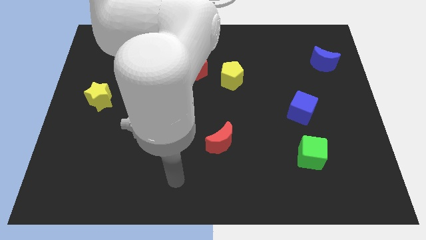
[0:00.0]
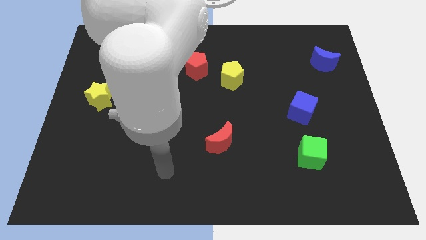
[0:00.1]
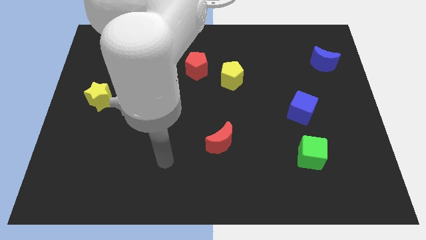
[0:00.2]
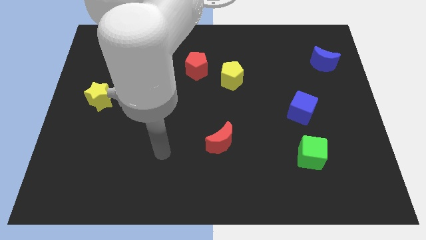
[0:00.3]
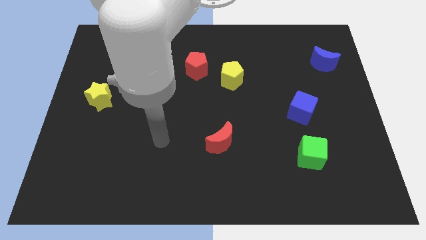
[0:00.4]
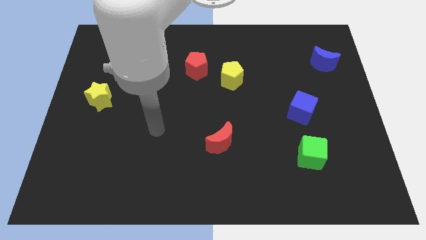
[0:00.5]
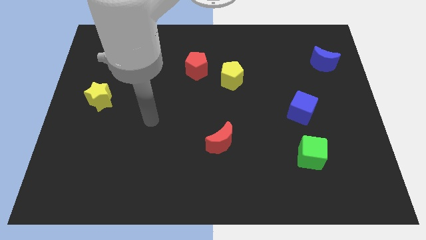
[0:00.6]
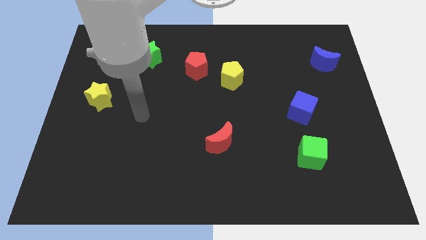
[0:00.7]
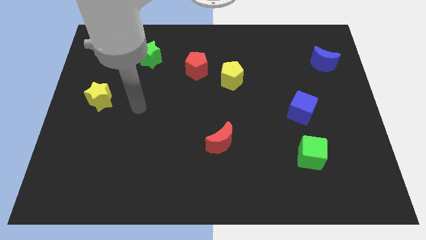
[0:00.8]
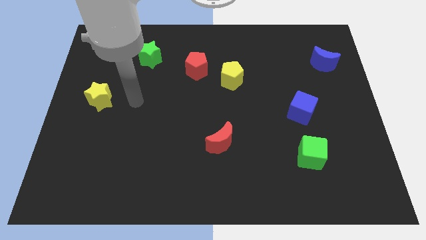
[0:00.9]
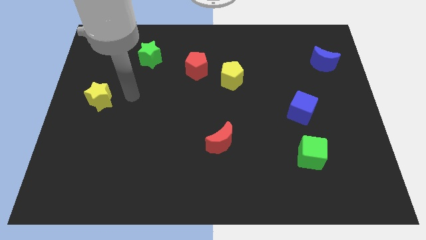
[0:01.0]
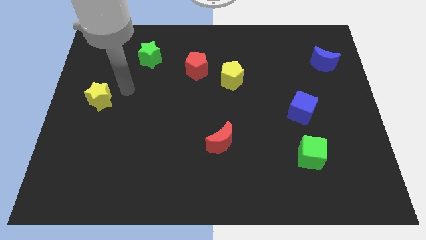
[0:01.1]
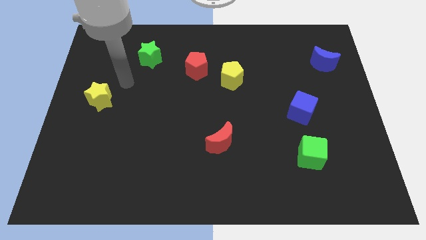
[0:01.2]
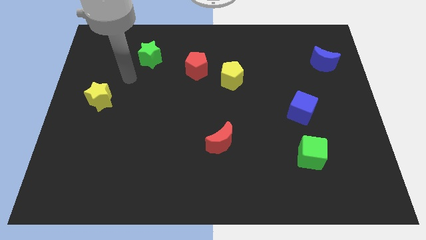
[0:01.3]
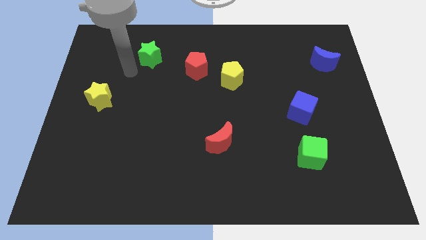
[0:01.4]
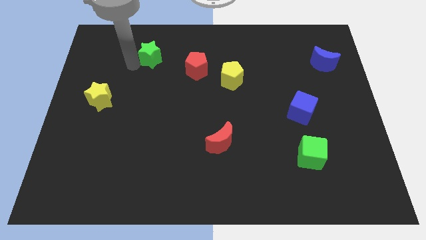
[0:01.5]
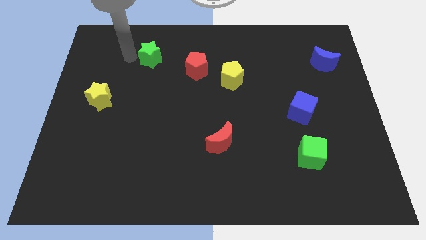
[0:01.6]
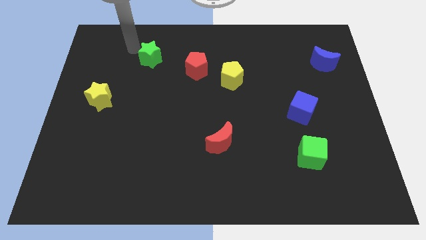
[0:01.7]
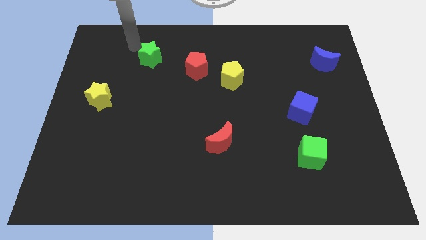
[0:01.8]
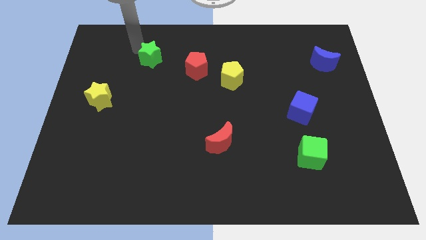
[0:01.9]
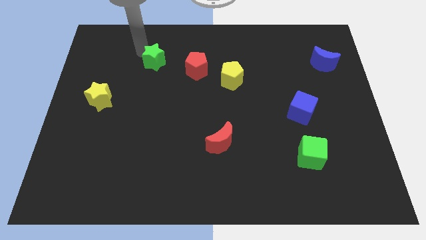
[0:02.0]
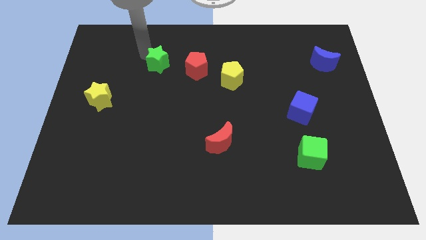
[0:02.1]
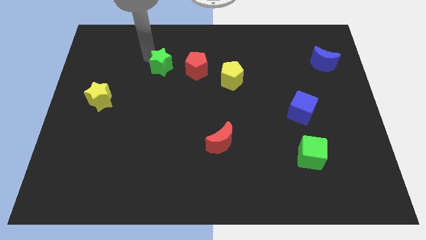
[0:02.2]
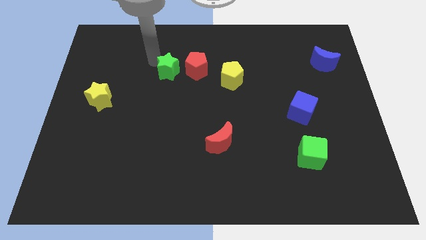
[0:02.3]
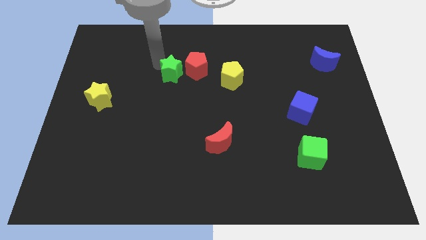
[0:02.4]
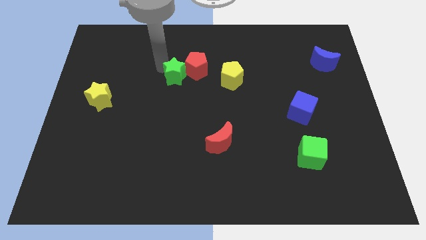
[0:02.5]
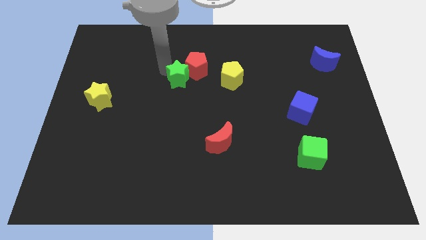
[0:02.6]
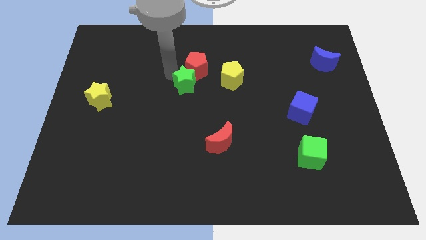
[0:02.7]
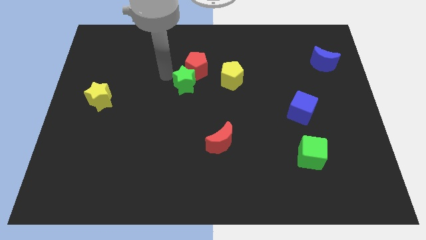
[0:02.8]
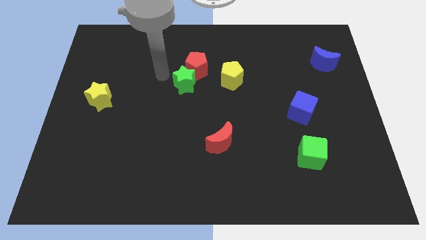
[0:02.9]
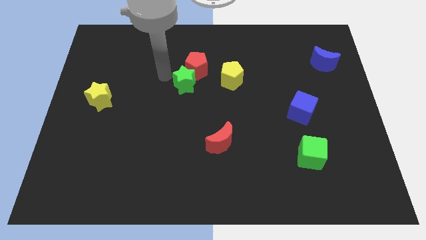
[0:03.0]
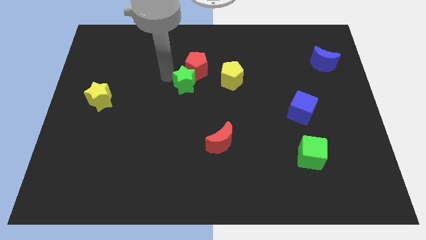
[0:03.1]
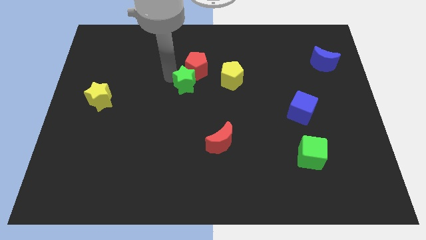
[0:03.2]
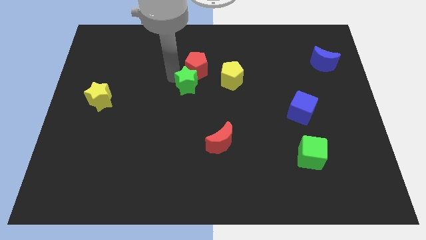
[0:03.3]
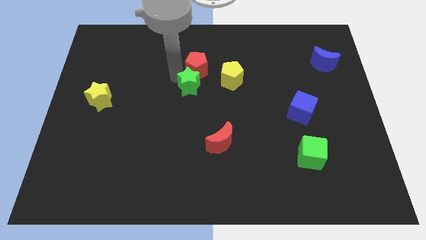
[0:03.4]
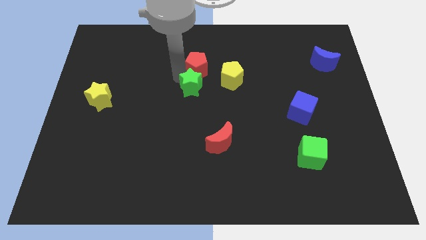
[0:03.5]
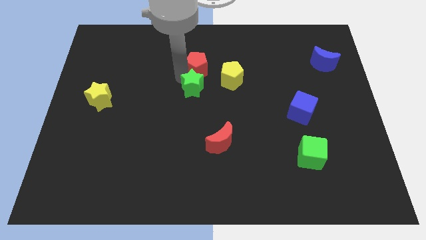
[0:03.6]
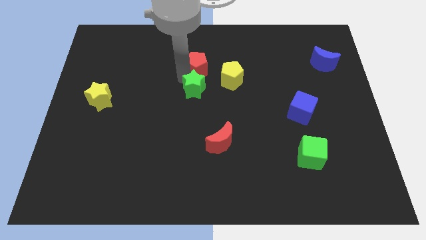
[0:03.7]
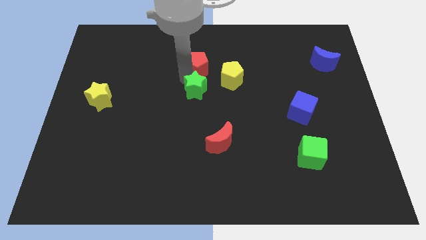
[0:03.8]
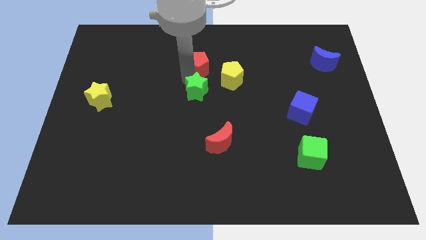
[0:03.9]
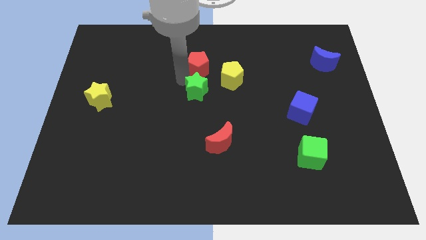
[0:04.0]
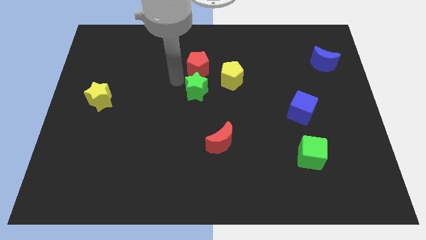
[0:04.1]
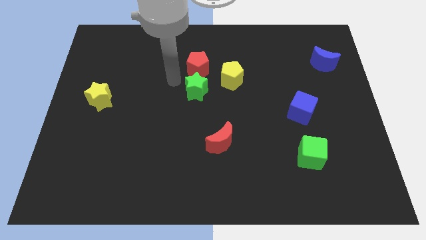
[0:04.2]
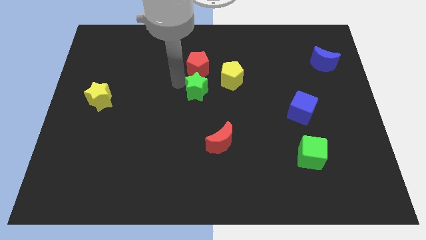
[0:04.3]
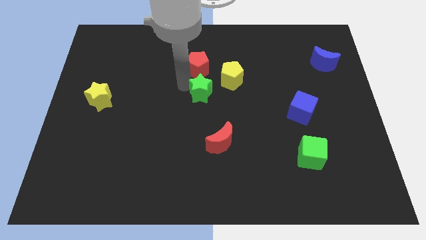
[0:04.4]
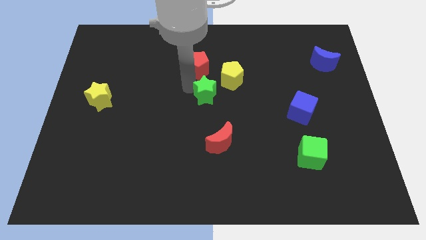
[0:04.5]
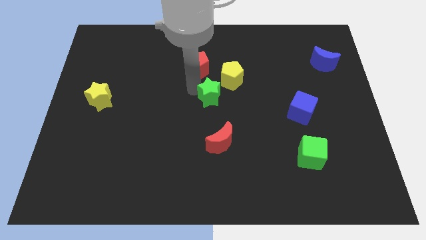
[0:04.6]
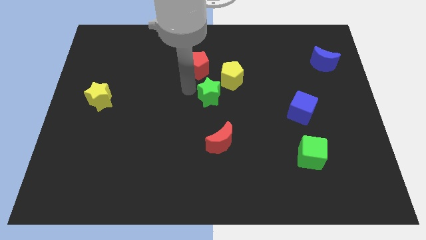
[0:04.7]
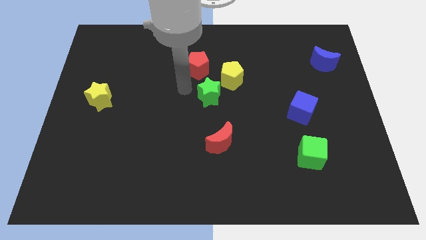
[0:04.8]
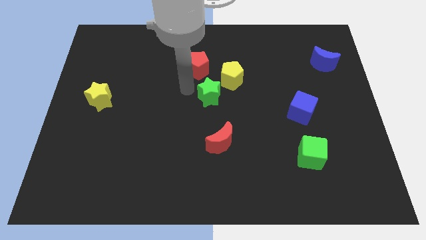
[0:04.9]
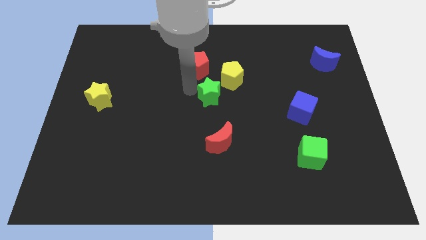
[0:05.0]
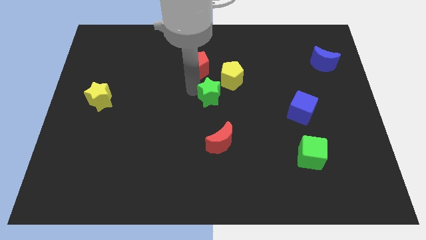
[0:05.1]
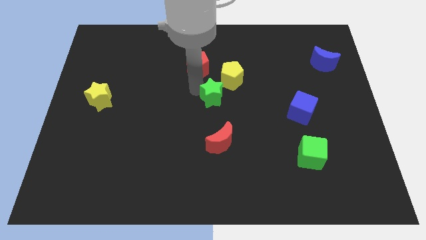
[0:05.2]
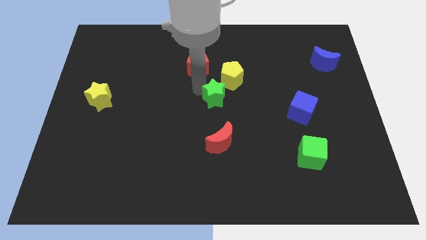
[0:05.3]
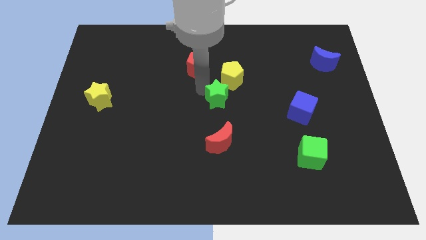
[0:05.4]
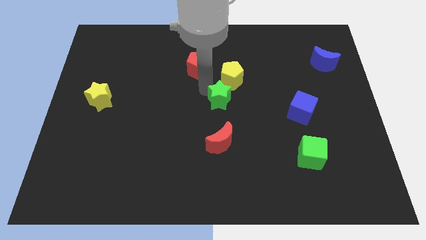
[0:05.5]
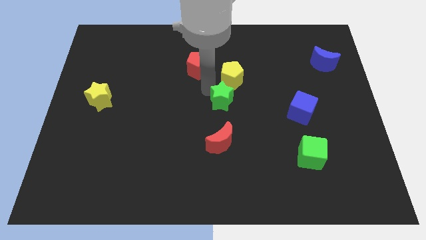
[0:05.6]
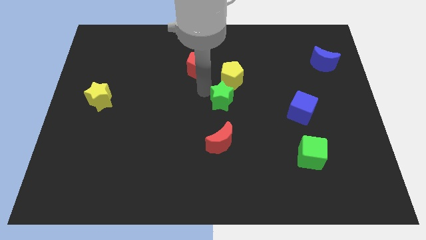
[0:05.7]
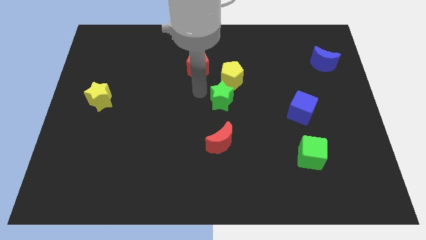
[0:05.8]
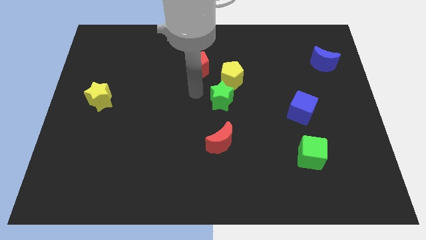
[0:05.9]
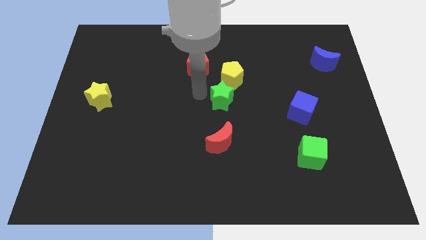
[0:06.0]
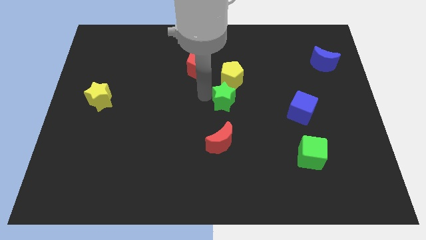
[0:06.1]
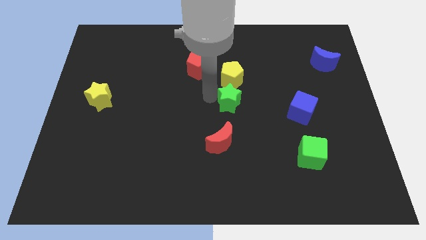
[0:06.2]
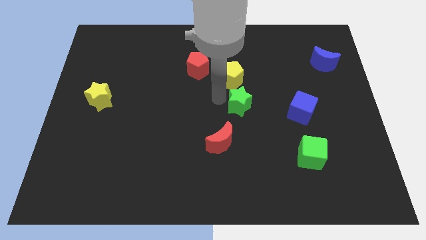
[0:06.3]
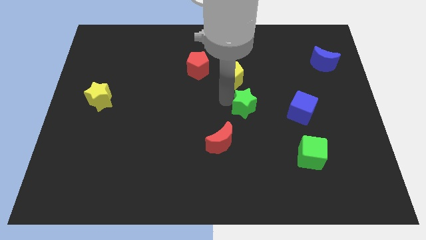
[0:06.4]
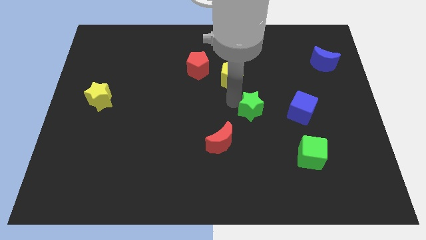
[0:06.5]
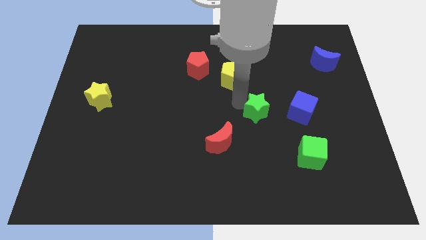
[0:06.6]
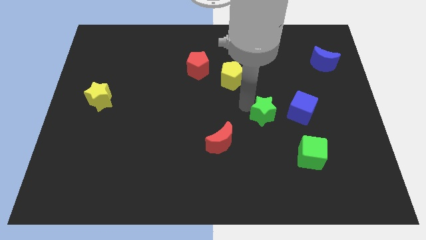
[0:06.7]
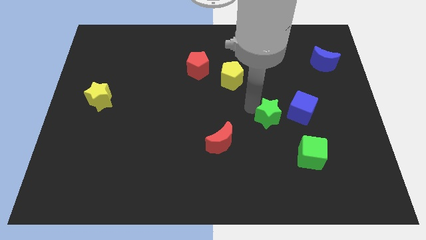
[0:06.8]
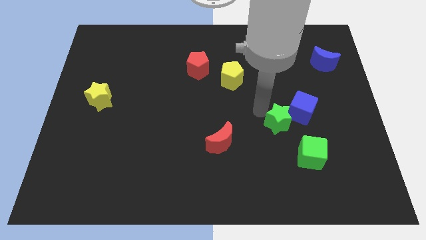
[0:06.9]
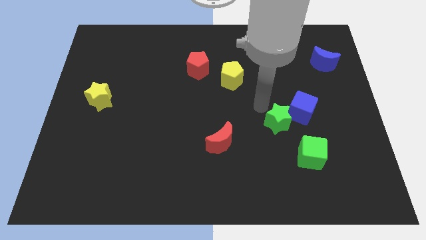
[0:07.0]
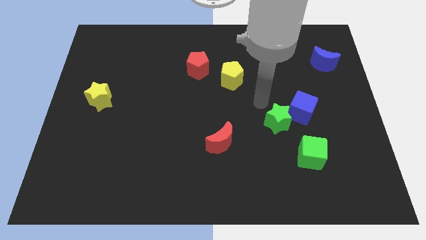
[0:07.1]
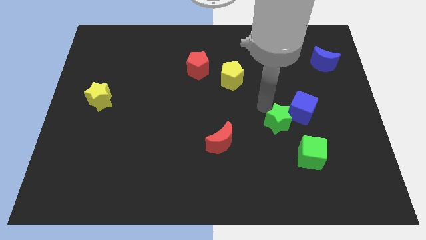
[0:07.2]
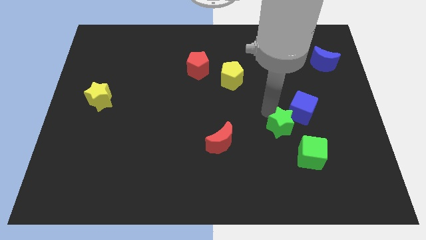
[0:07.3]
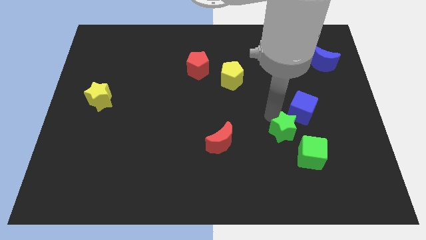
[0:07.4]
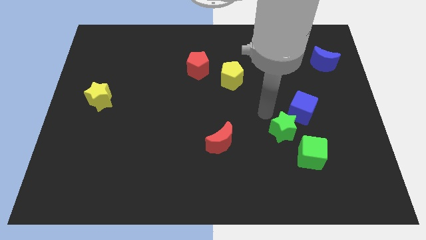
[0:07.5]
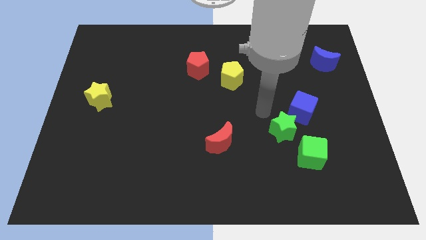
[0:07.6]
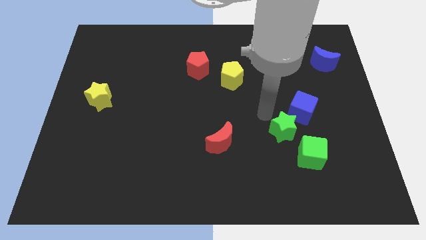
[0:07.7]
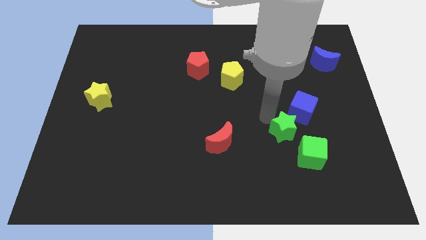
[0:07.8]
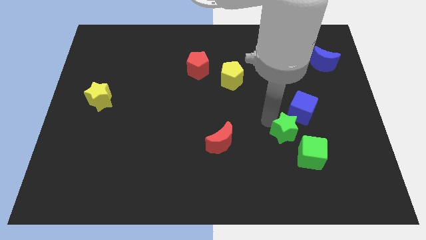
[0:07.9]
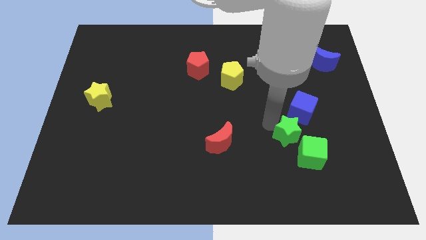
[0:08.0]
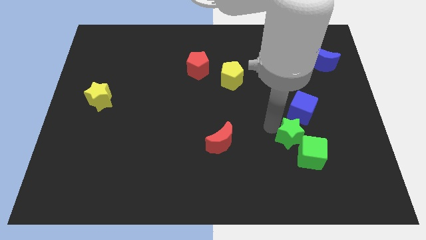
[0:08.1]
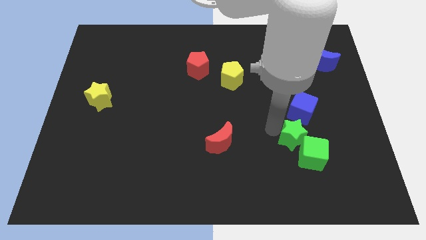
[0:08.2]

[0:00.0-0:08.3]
push the green star close to the green cube
